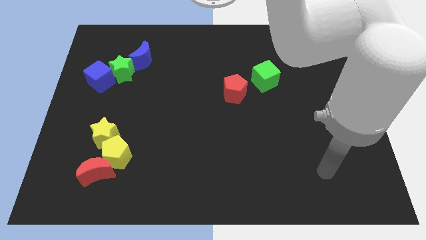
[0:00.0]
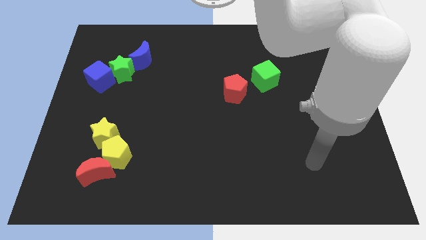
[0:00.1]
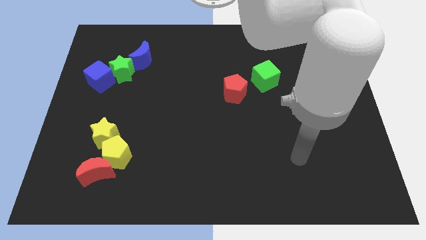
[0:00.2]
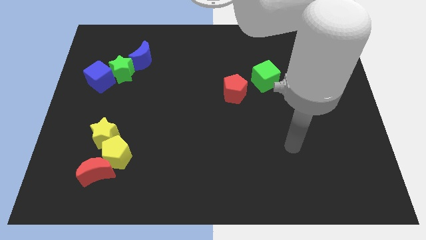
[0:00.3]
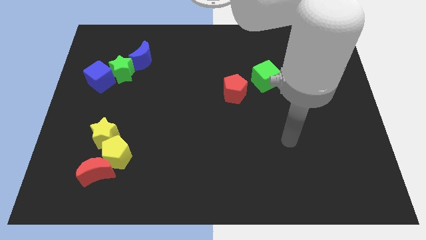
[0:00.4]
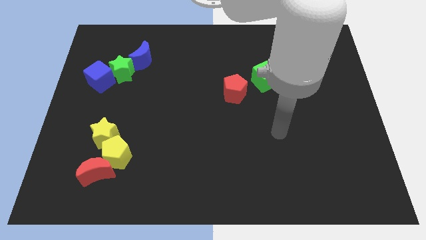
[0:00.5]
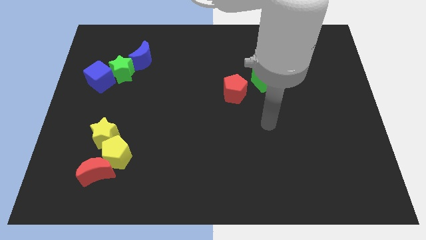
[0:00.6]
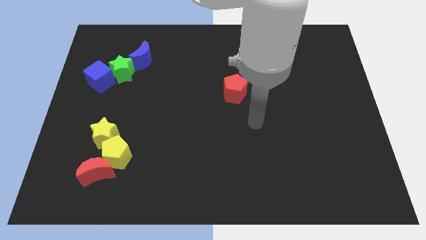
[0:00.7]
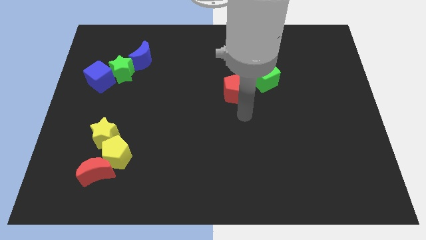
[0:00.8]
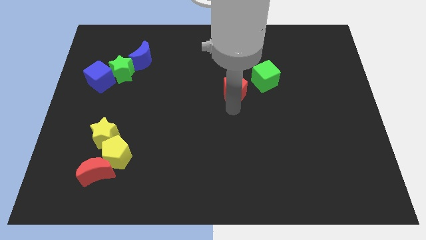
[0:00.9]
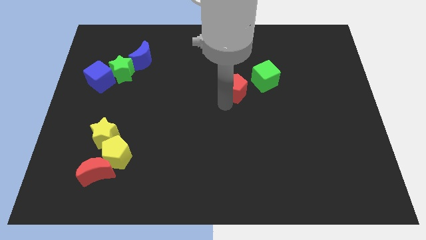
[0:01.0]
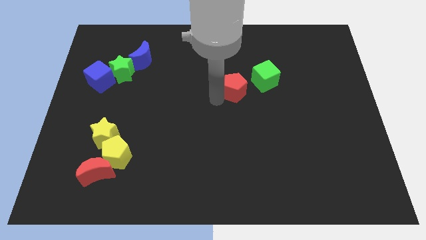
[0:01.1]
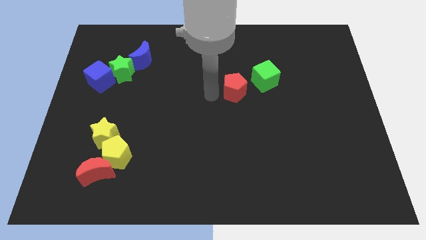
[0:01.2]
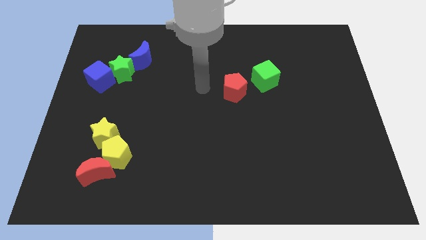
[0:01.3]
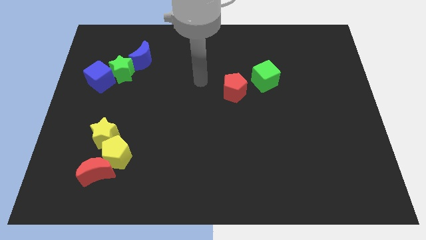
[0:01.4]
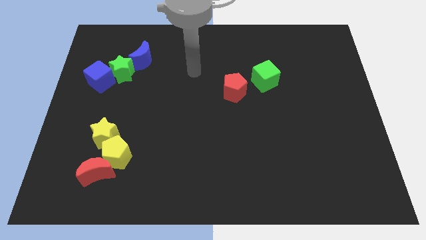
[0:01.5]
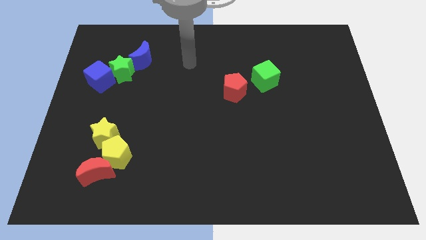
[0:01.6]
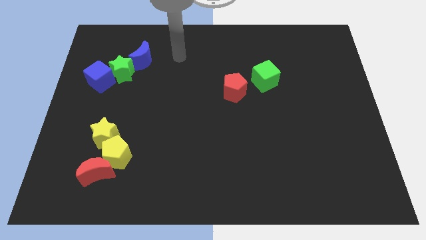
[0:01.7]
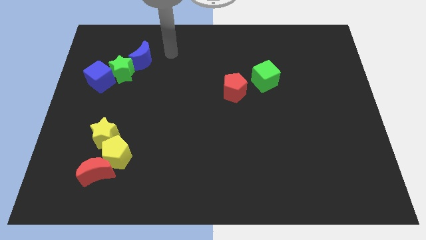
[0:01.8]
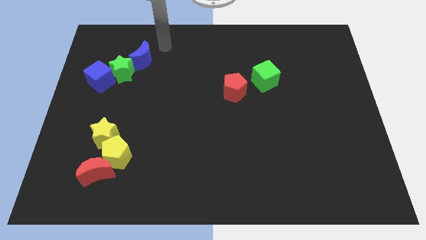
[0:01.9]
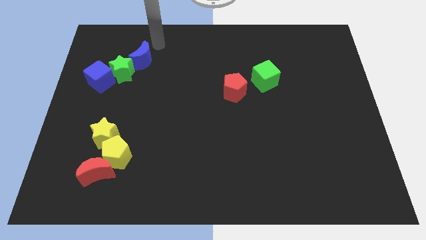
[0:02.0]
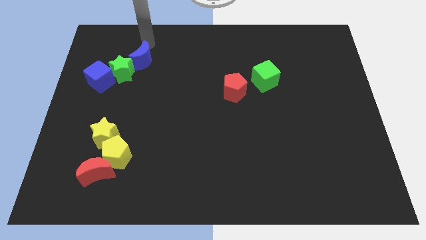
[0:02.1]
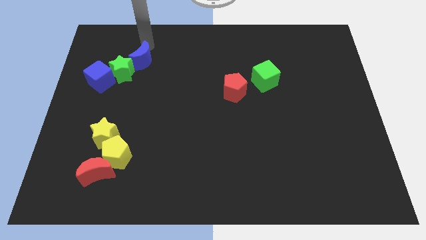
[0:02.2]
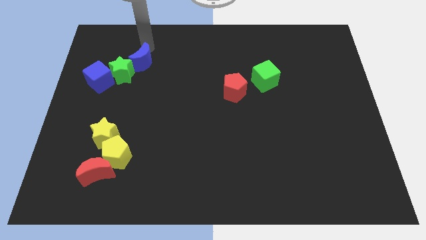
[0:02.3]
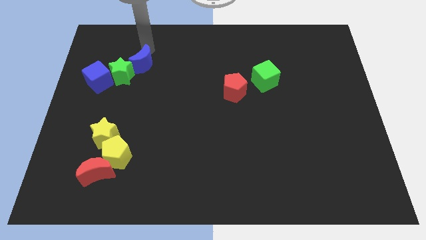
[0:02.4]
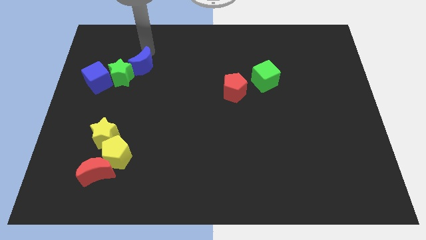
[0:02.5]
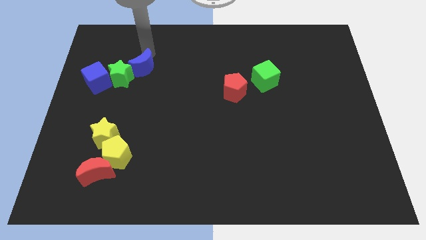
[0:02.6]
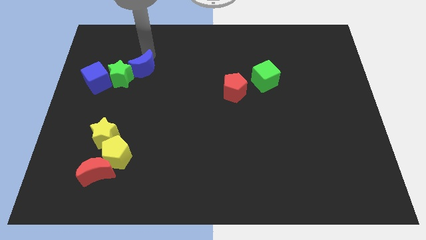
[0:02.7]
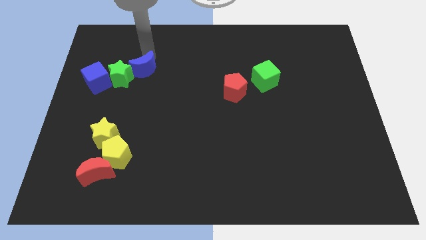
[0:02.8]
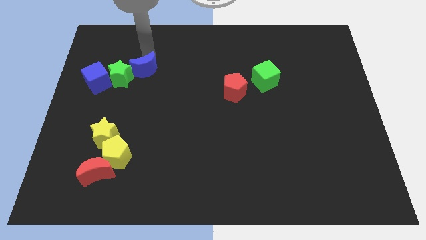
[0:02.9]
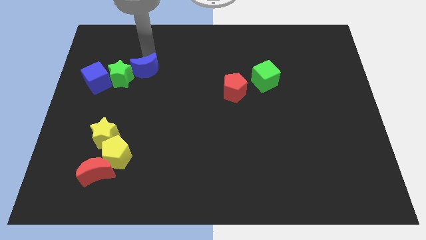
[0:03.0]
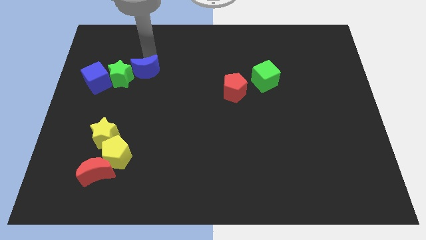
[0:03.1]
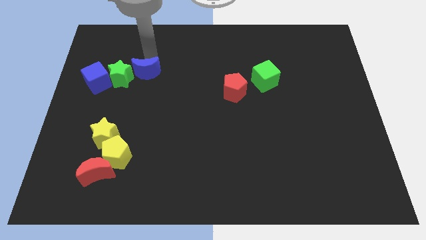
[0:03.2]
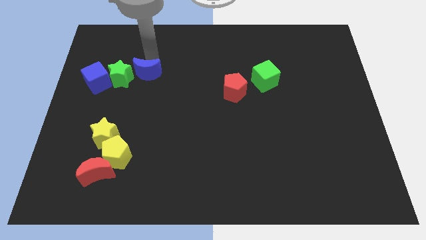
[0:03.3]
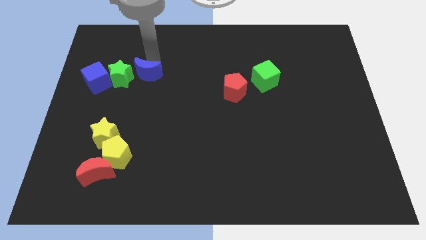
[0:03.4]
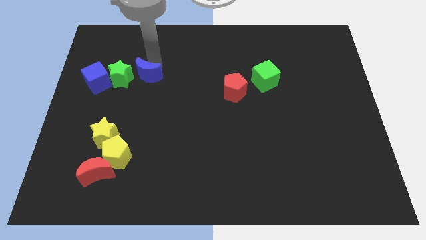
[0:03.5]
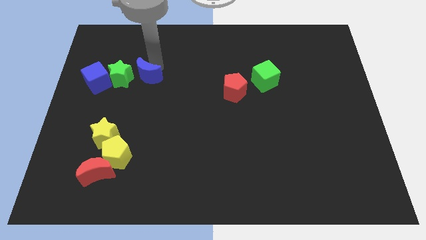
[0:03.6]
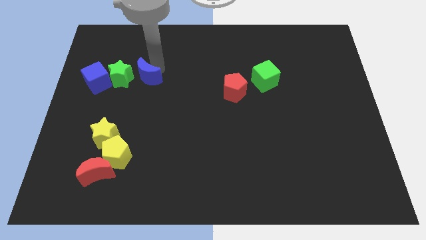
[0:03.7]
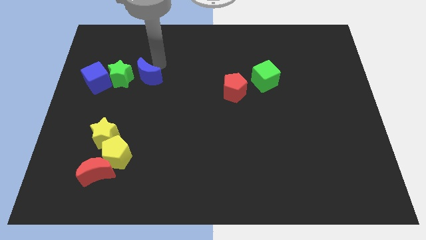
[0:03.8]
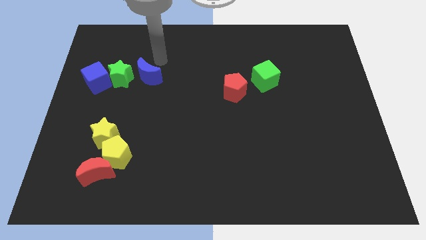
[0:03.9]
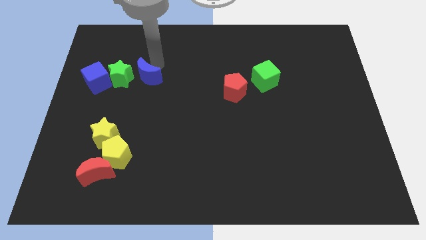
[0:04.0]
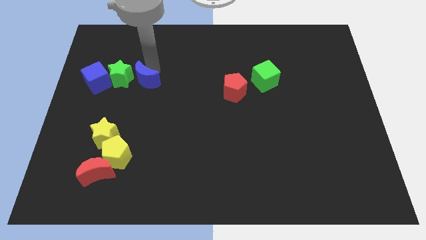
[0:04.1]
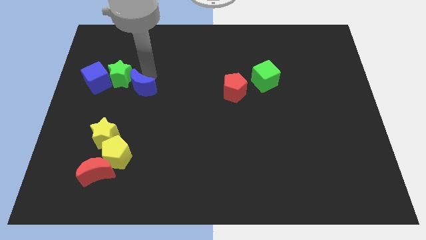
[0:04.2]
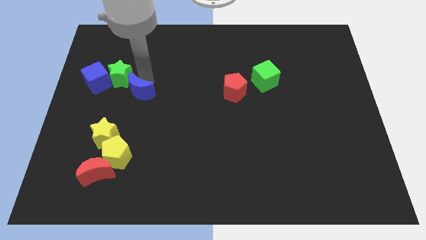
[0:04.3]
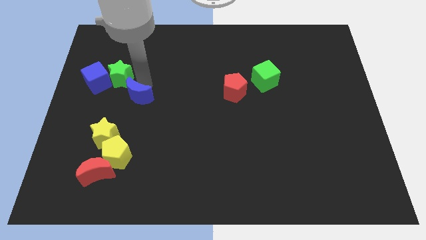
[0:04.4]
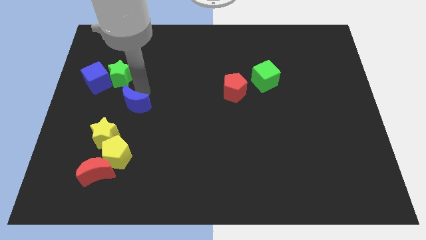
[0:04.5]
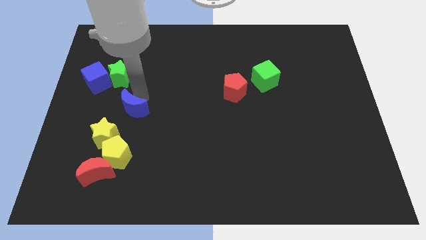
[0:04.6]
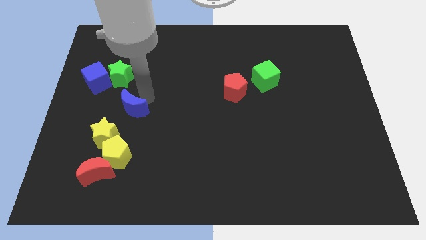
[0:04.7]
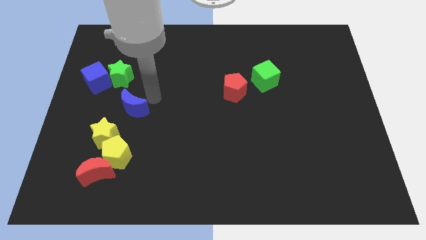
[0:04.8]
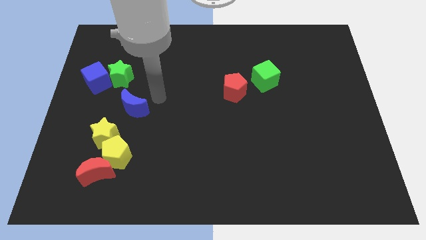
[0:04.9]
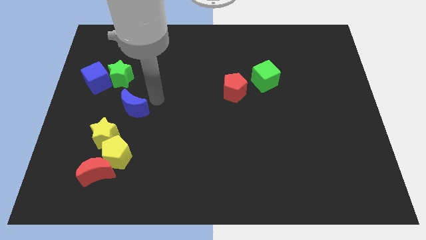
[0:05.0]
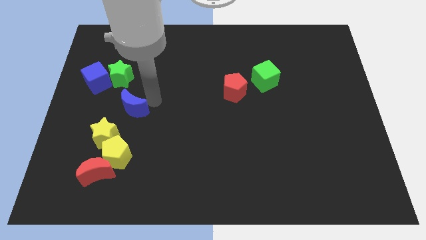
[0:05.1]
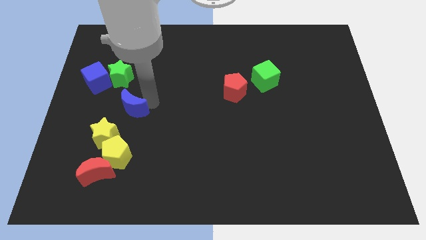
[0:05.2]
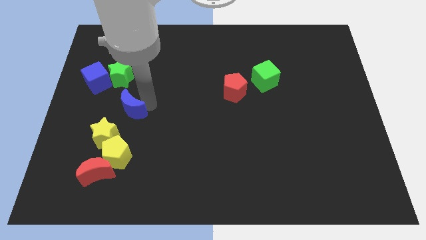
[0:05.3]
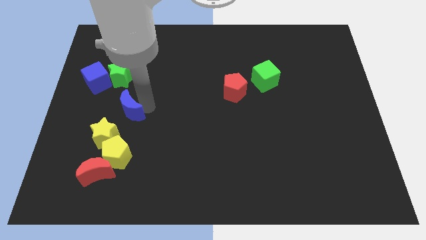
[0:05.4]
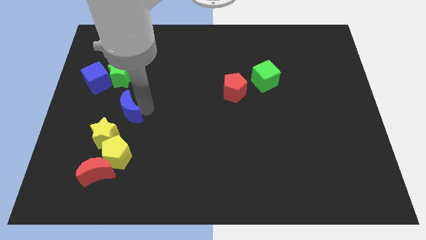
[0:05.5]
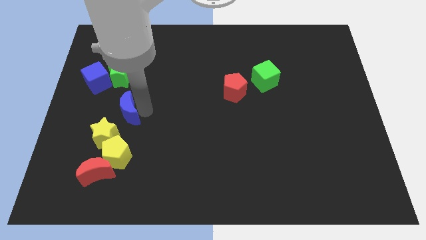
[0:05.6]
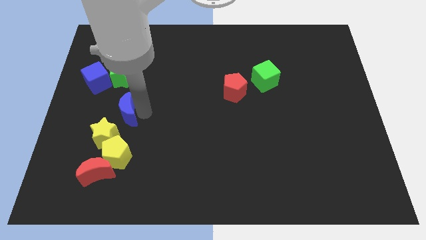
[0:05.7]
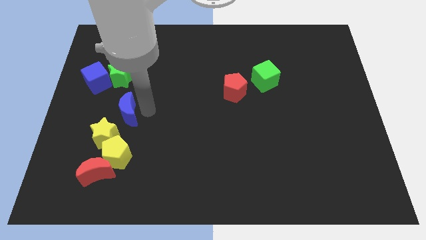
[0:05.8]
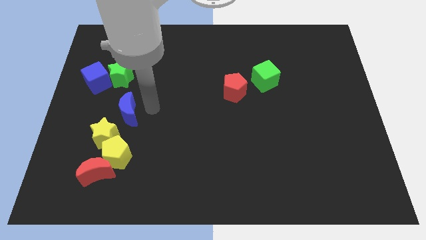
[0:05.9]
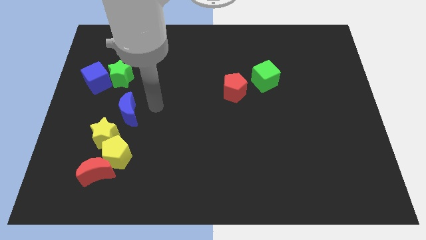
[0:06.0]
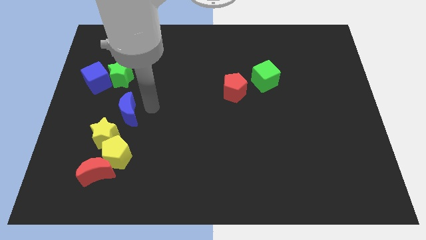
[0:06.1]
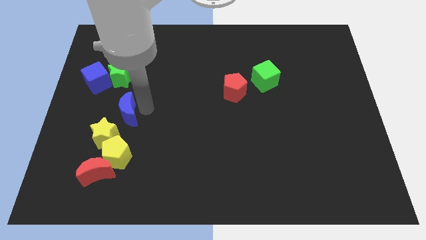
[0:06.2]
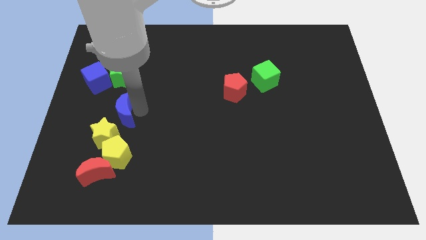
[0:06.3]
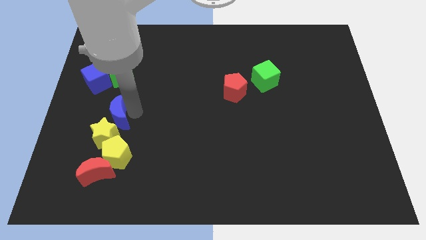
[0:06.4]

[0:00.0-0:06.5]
move the blue moon next to the yellow star

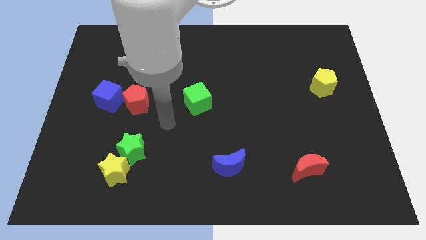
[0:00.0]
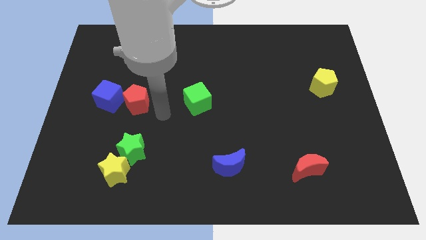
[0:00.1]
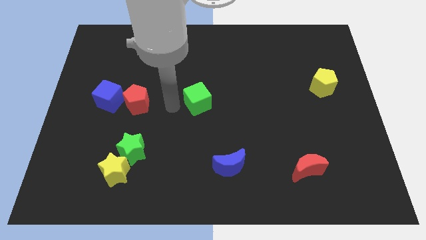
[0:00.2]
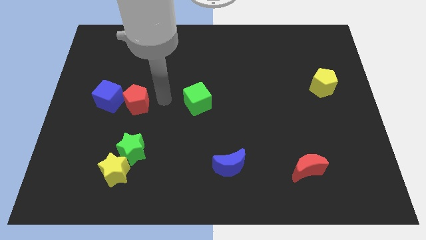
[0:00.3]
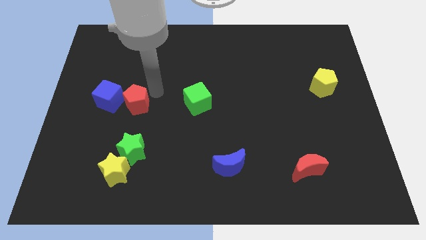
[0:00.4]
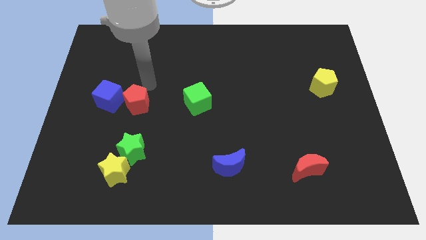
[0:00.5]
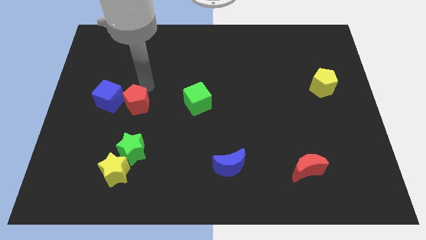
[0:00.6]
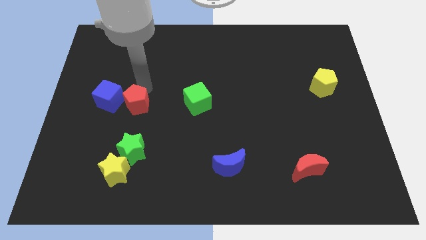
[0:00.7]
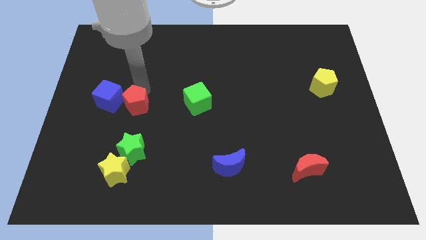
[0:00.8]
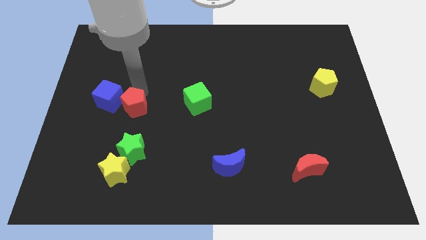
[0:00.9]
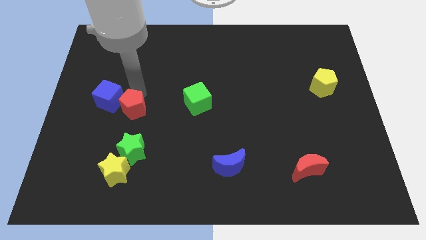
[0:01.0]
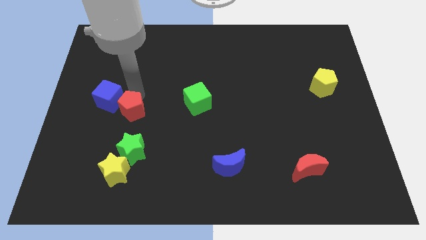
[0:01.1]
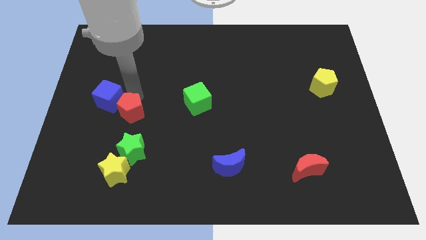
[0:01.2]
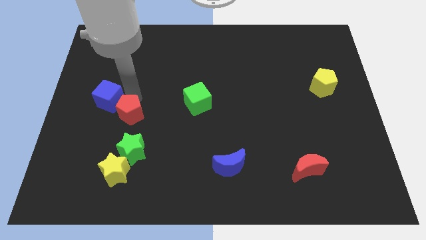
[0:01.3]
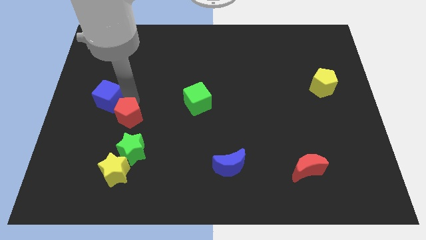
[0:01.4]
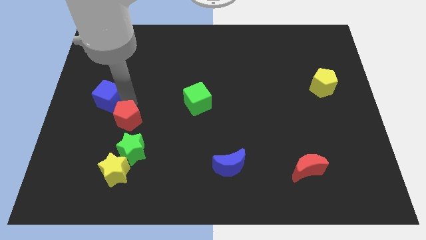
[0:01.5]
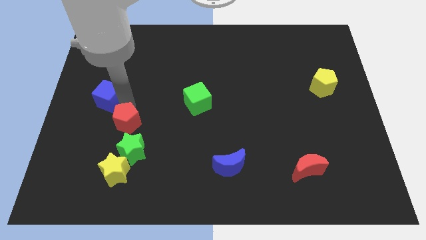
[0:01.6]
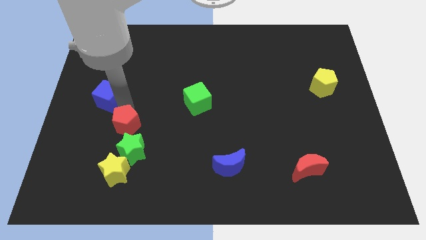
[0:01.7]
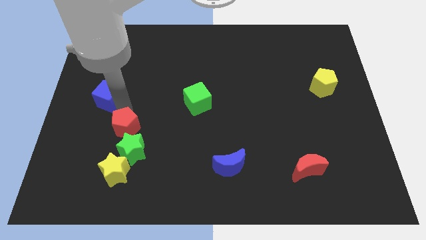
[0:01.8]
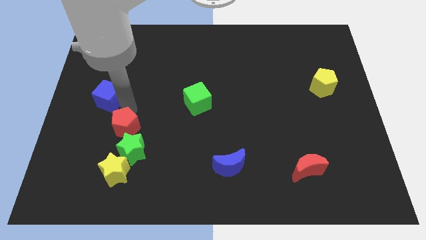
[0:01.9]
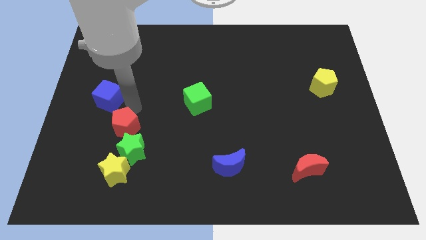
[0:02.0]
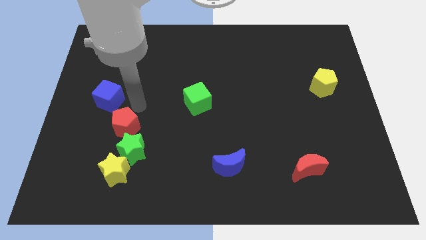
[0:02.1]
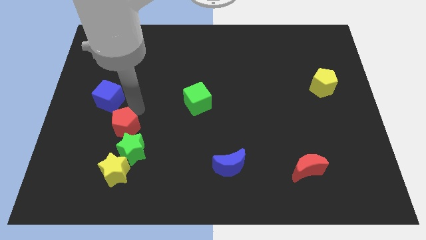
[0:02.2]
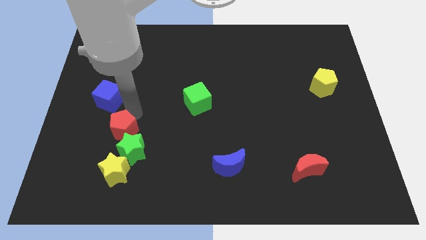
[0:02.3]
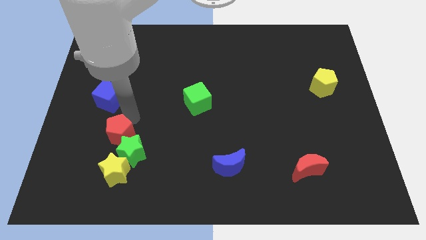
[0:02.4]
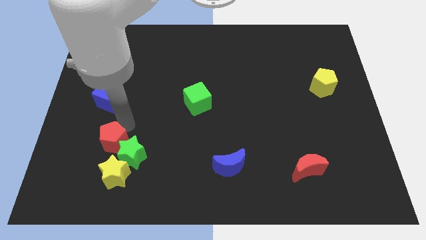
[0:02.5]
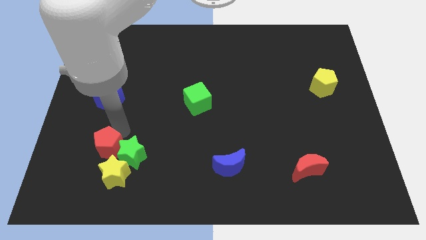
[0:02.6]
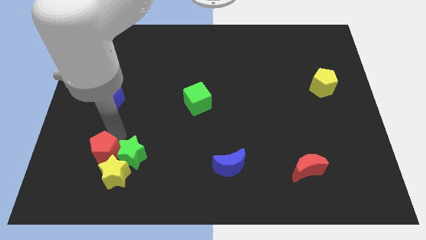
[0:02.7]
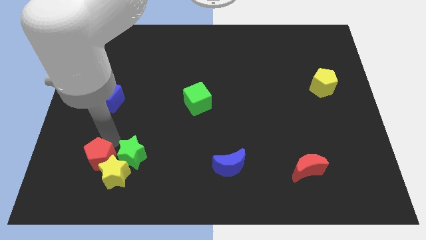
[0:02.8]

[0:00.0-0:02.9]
slide the red pentagon towards the yellow star
